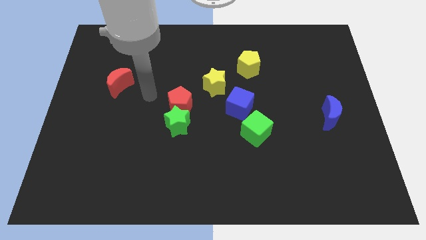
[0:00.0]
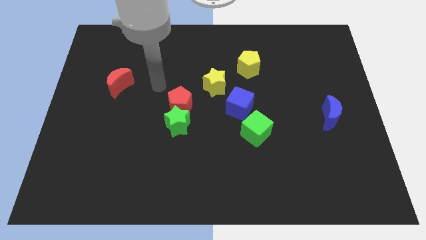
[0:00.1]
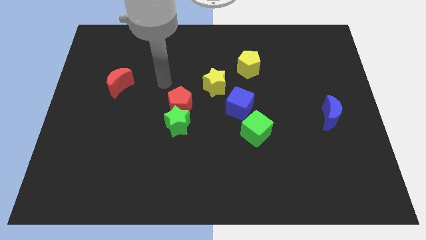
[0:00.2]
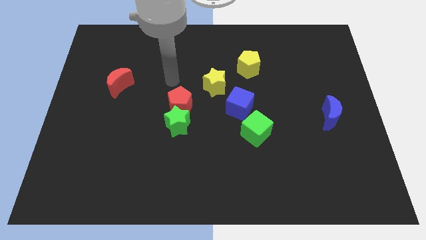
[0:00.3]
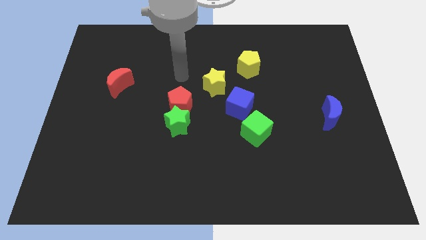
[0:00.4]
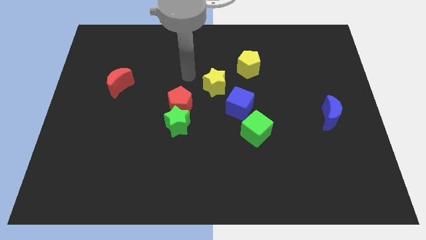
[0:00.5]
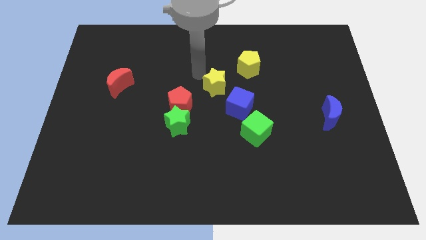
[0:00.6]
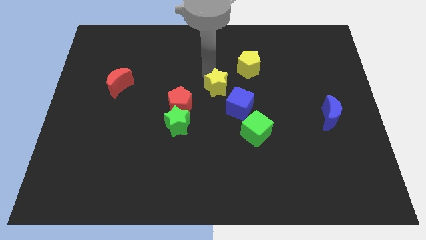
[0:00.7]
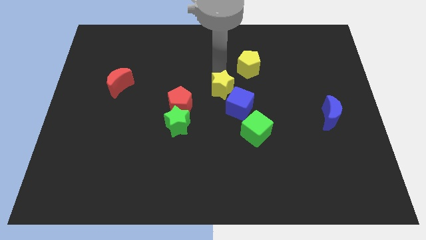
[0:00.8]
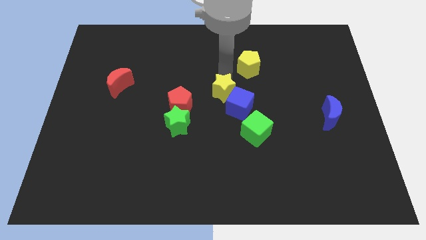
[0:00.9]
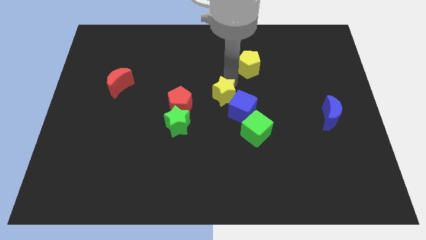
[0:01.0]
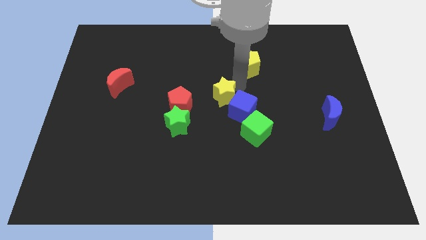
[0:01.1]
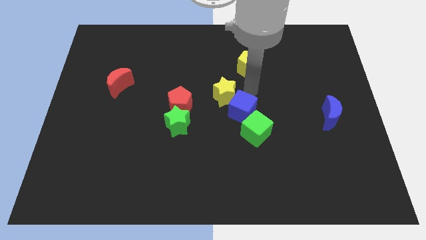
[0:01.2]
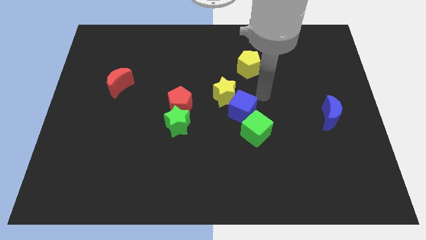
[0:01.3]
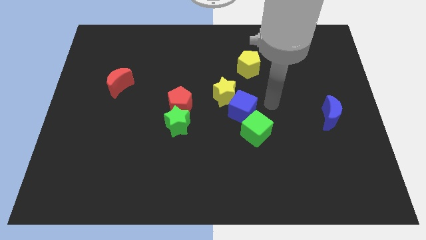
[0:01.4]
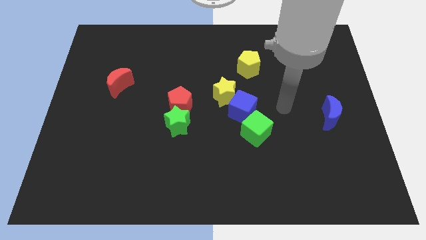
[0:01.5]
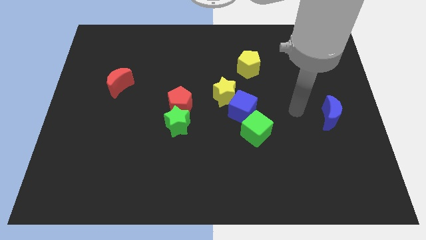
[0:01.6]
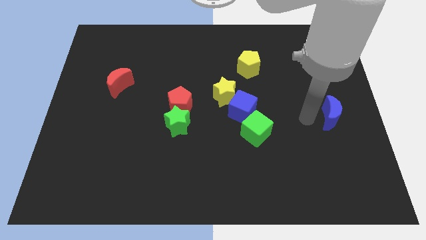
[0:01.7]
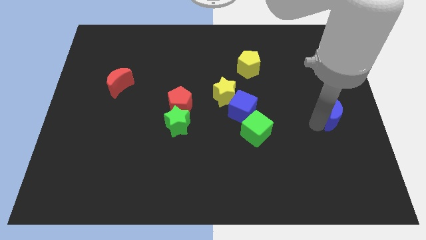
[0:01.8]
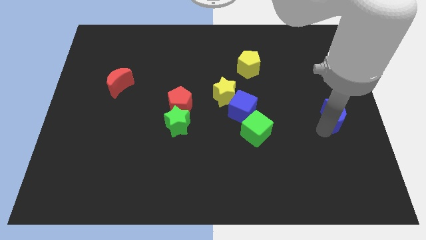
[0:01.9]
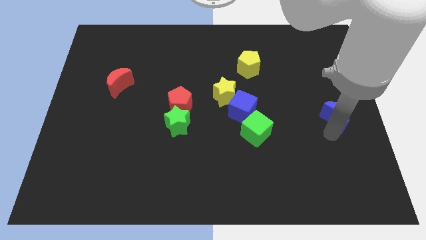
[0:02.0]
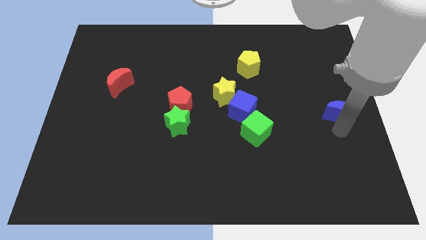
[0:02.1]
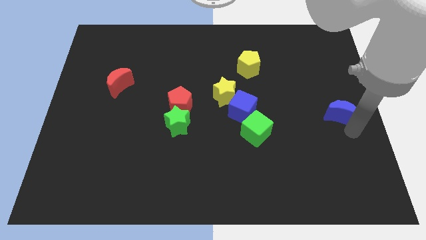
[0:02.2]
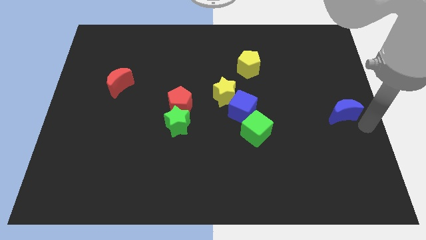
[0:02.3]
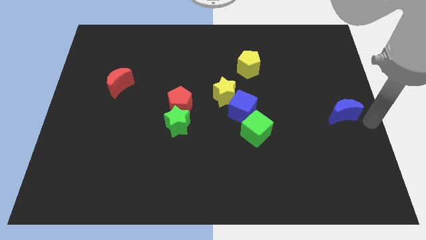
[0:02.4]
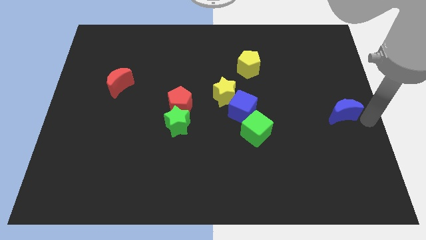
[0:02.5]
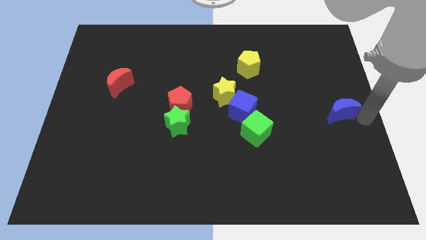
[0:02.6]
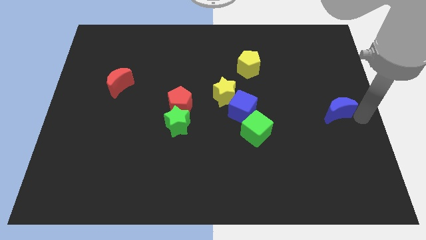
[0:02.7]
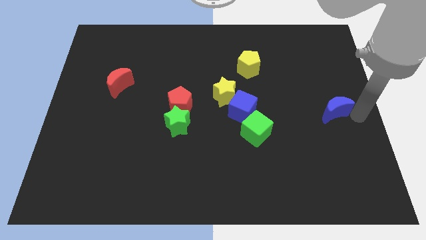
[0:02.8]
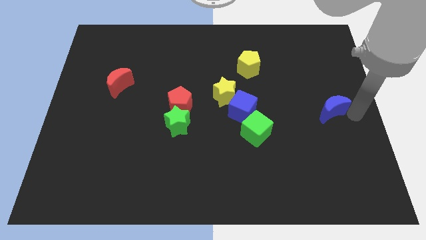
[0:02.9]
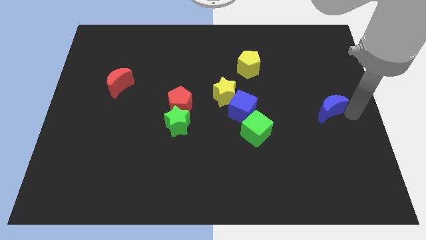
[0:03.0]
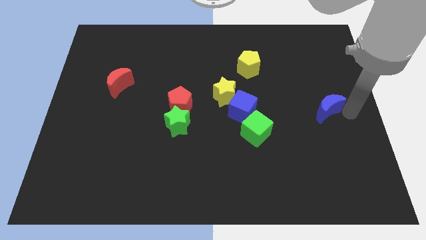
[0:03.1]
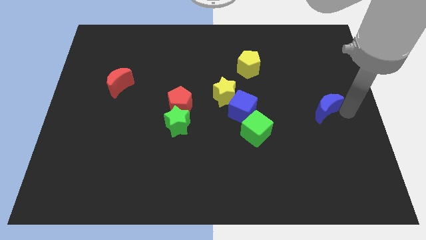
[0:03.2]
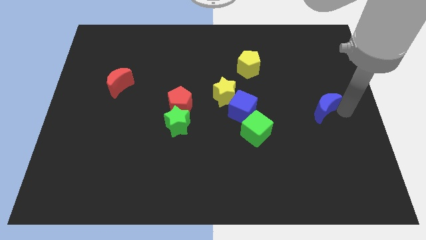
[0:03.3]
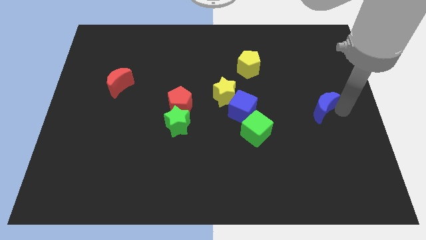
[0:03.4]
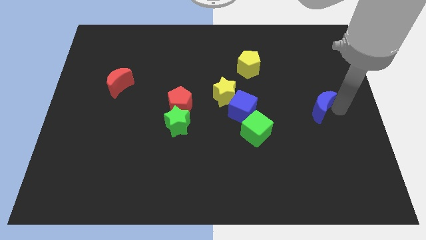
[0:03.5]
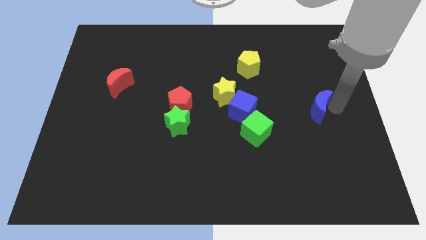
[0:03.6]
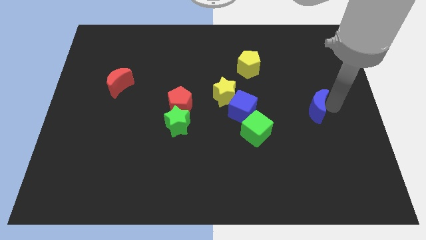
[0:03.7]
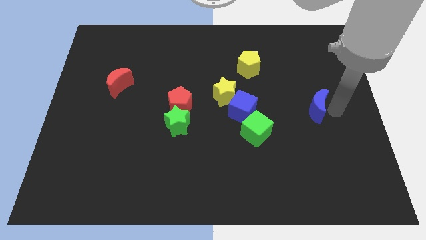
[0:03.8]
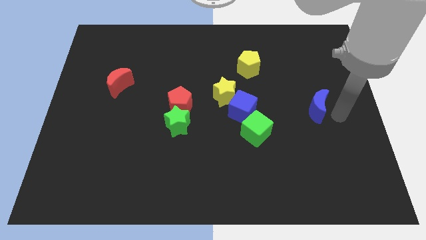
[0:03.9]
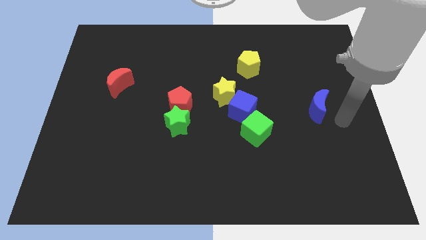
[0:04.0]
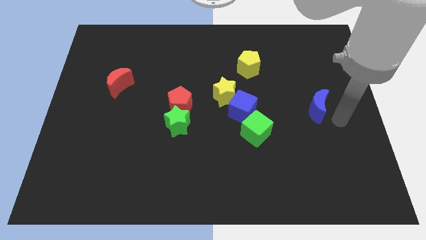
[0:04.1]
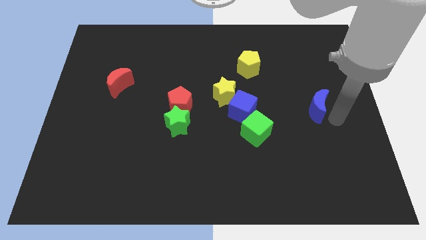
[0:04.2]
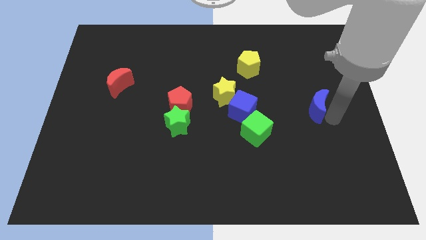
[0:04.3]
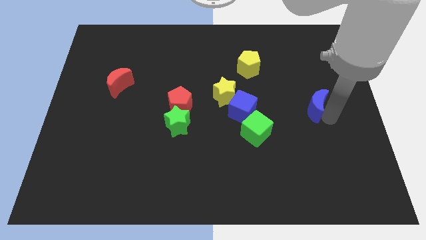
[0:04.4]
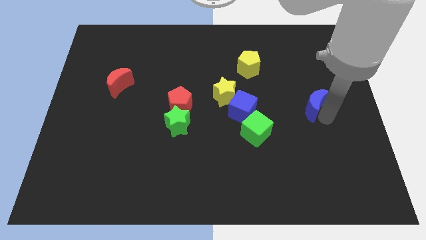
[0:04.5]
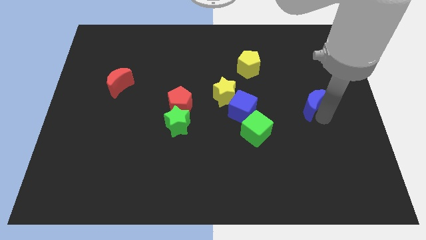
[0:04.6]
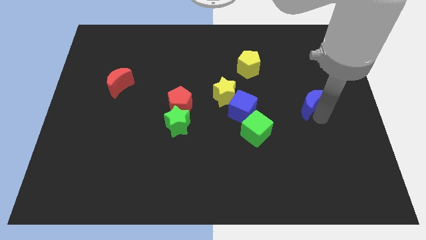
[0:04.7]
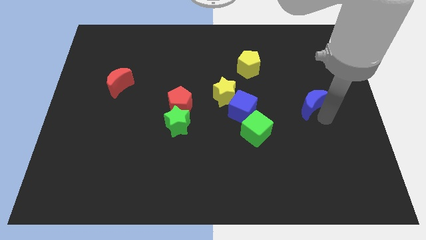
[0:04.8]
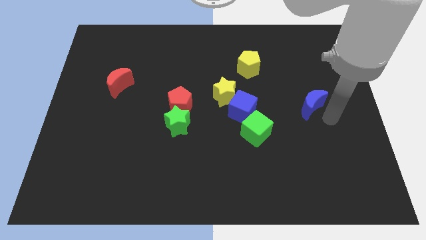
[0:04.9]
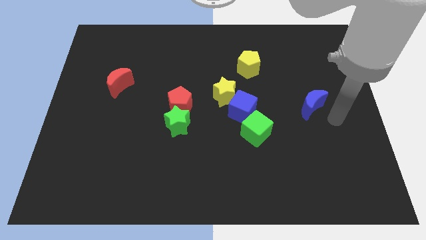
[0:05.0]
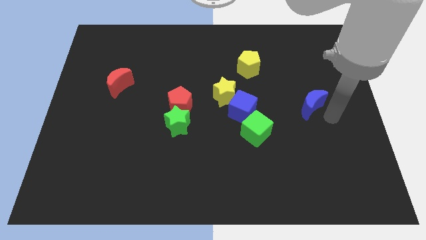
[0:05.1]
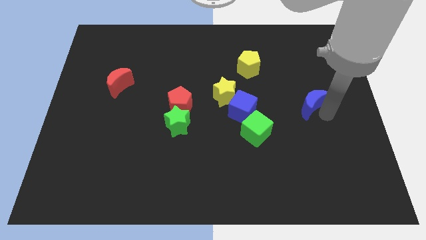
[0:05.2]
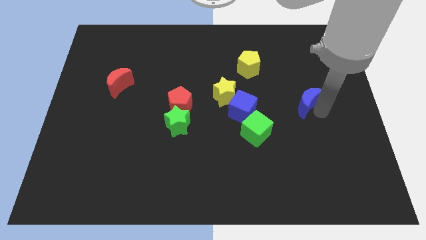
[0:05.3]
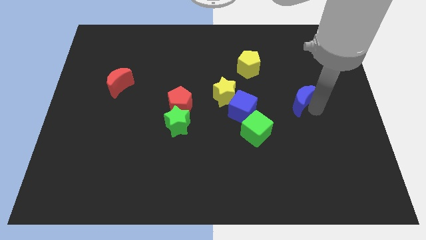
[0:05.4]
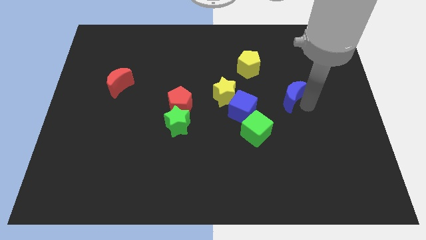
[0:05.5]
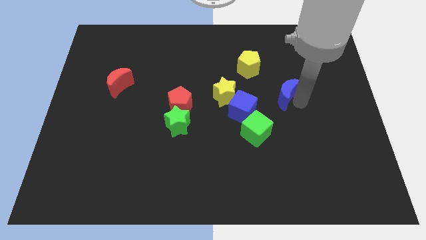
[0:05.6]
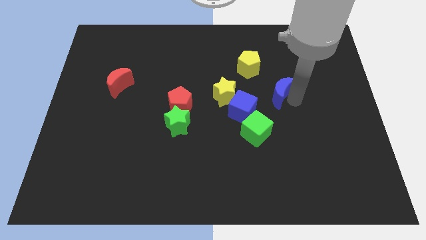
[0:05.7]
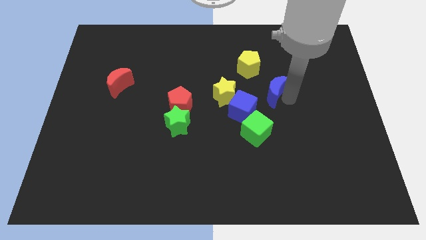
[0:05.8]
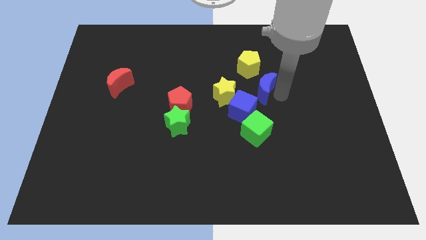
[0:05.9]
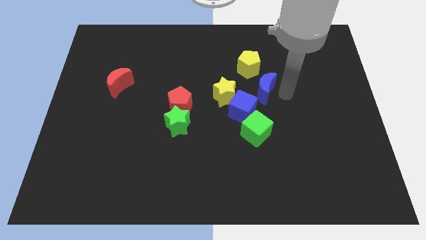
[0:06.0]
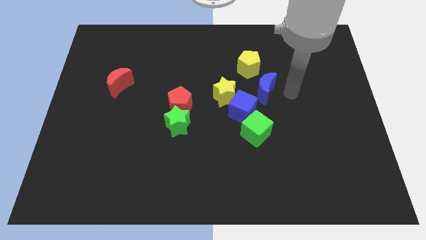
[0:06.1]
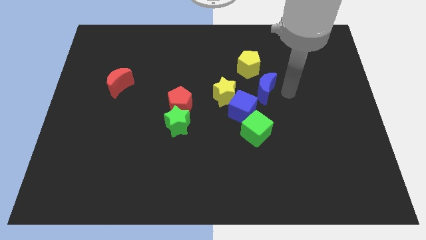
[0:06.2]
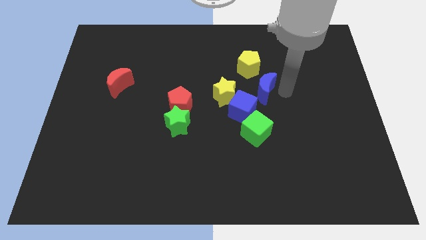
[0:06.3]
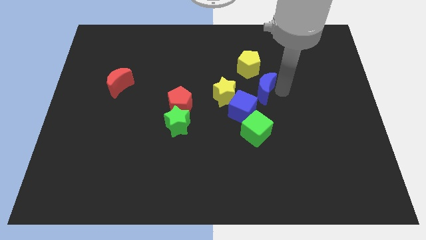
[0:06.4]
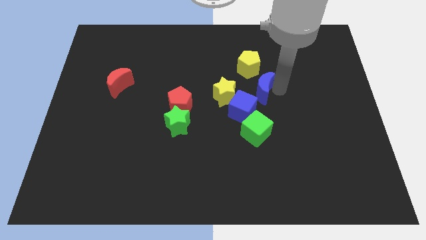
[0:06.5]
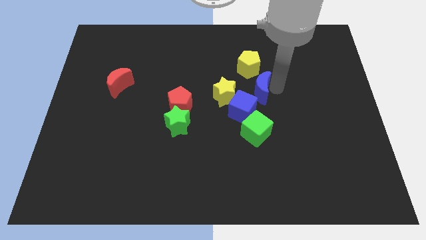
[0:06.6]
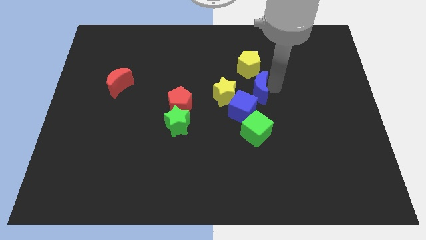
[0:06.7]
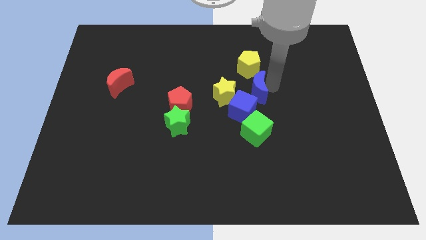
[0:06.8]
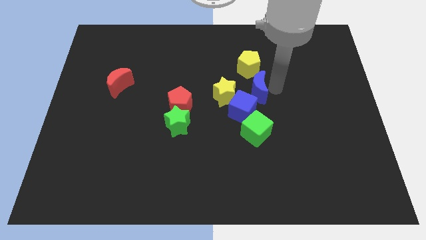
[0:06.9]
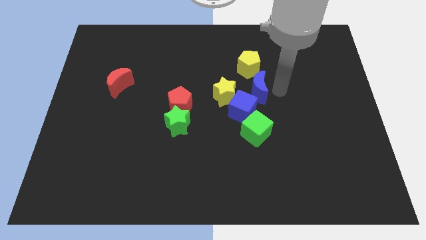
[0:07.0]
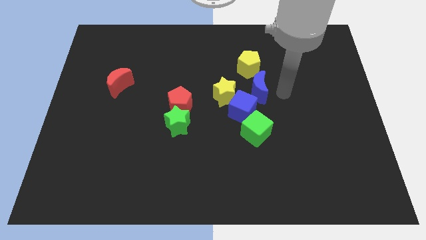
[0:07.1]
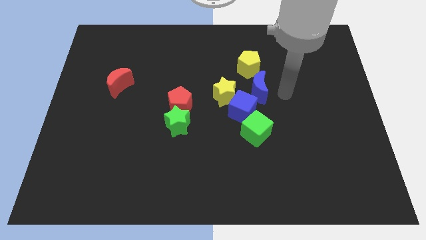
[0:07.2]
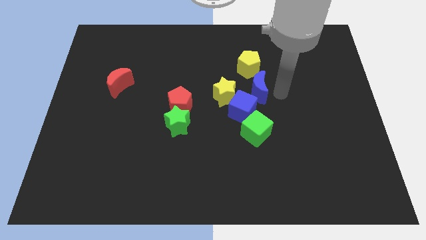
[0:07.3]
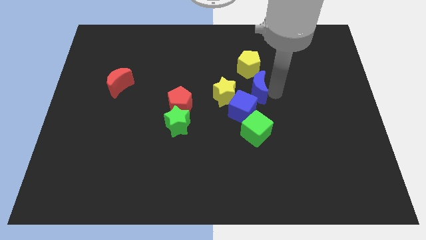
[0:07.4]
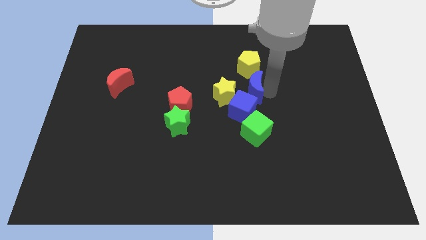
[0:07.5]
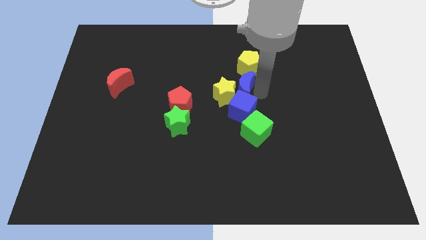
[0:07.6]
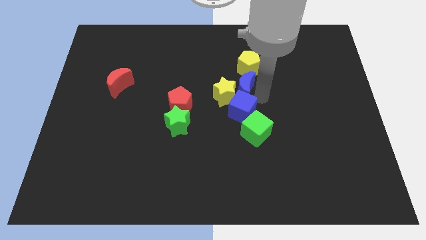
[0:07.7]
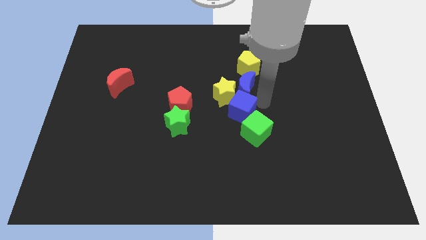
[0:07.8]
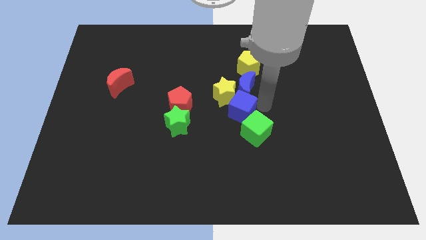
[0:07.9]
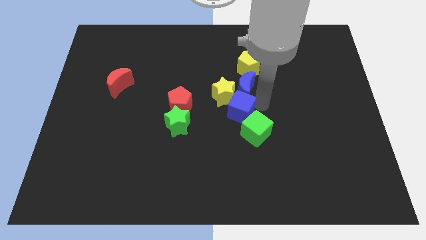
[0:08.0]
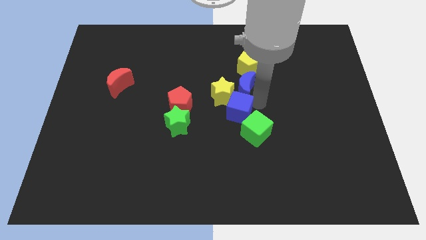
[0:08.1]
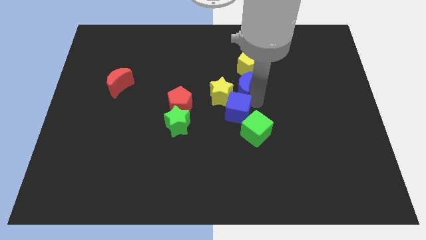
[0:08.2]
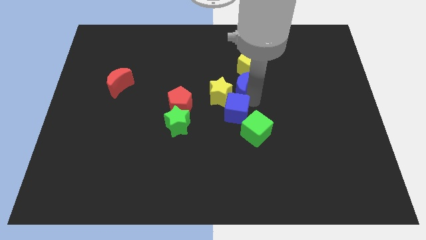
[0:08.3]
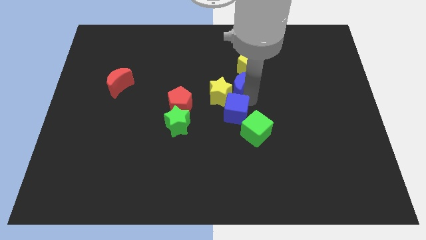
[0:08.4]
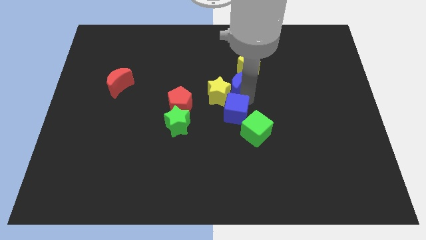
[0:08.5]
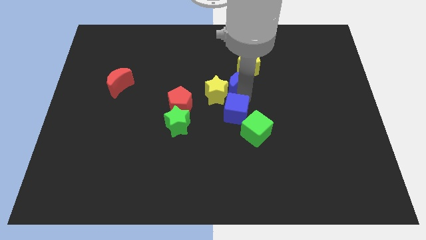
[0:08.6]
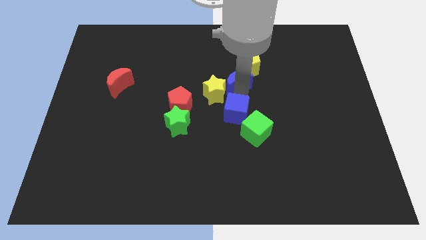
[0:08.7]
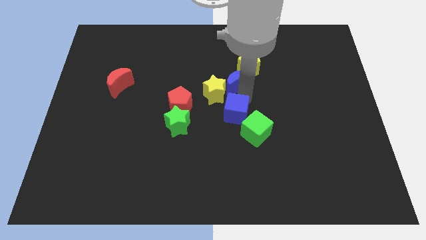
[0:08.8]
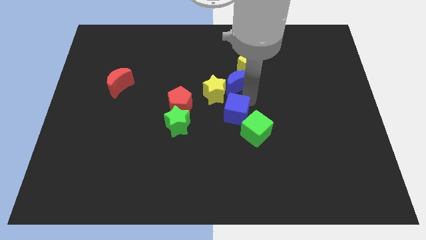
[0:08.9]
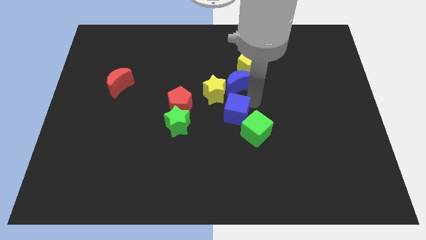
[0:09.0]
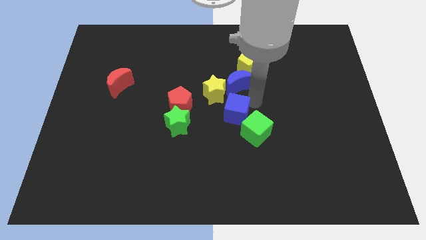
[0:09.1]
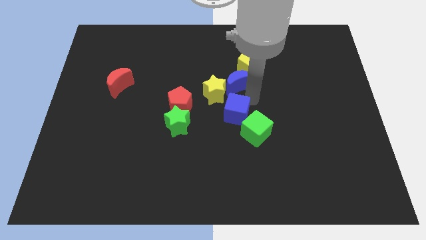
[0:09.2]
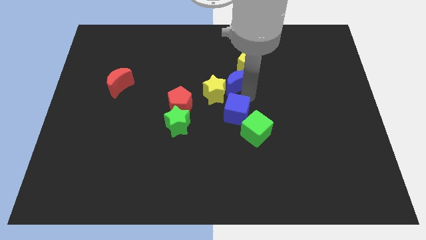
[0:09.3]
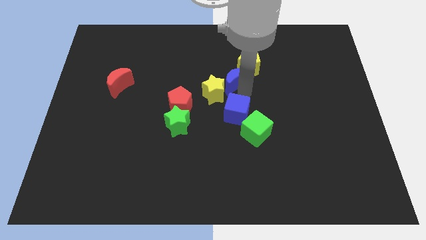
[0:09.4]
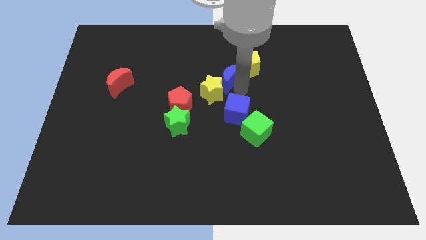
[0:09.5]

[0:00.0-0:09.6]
slide the blue moon to the left of the yellow pentagon
